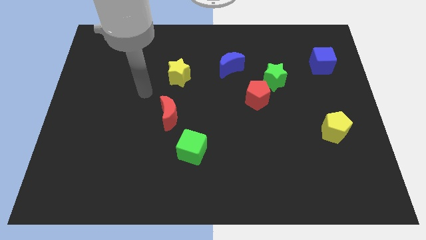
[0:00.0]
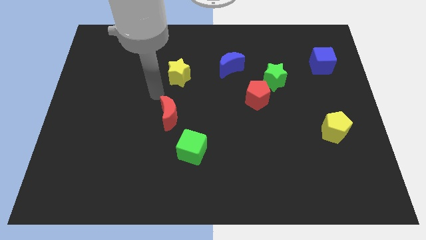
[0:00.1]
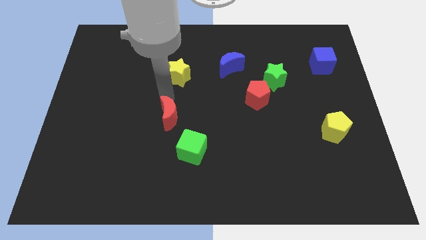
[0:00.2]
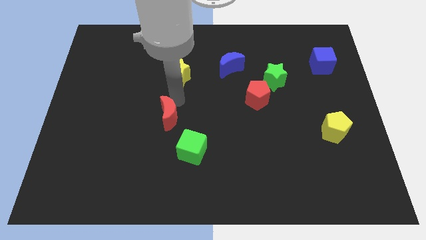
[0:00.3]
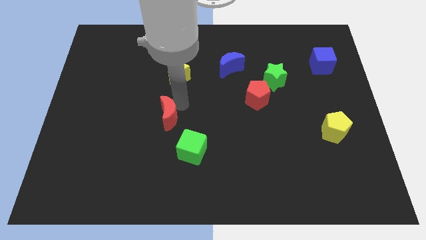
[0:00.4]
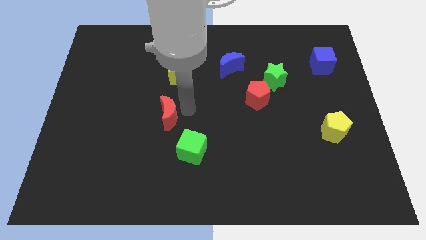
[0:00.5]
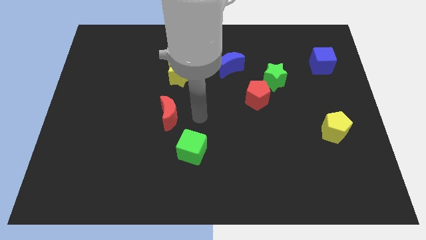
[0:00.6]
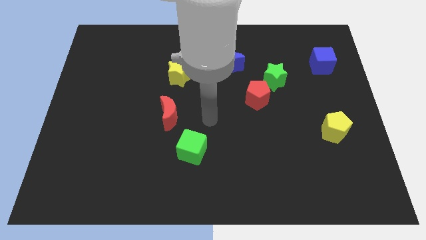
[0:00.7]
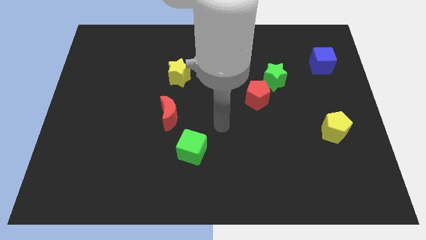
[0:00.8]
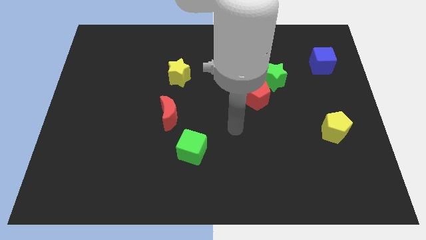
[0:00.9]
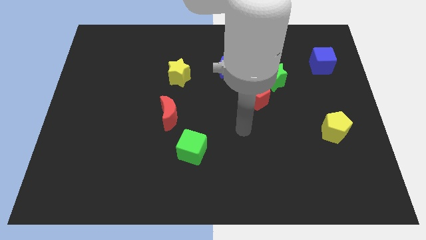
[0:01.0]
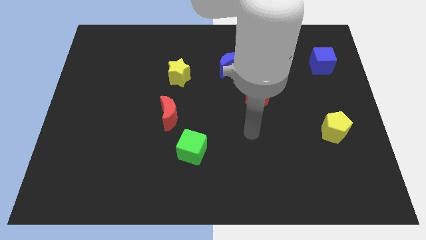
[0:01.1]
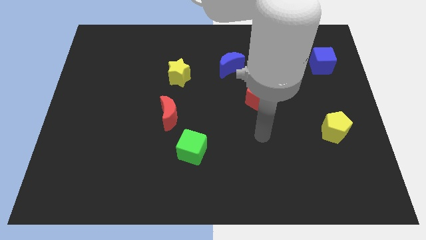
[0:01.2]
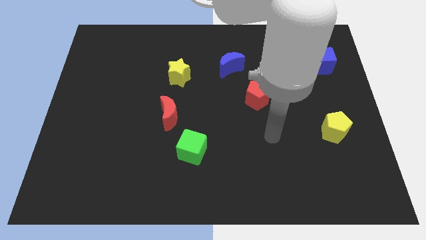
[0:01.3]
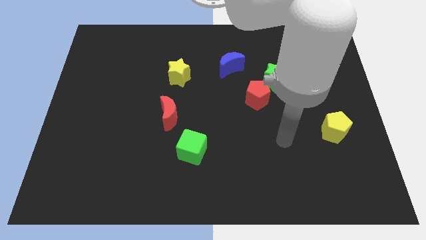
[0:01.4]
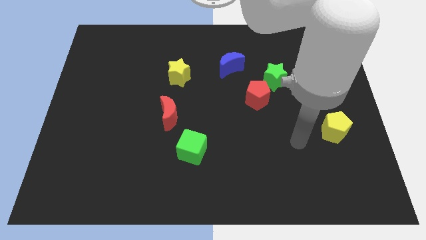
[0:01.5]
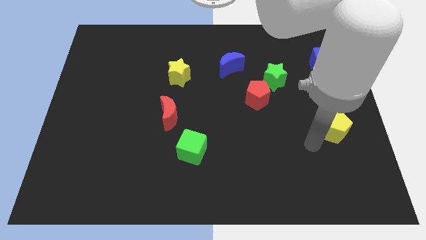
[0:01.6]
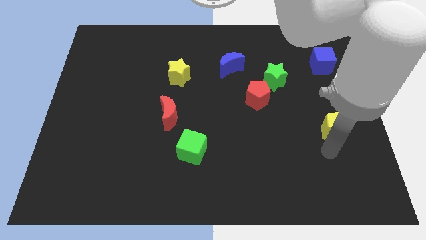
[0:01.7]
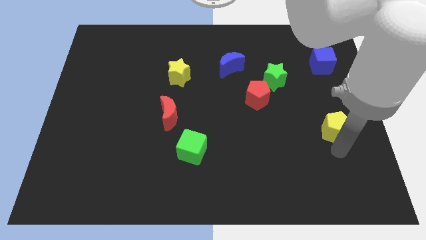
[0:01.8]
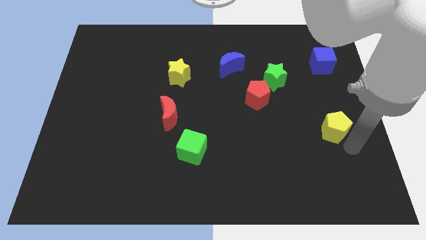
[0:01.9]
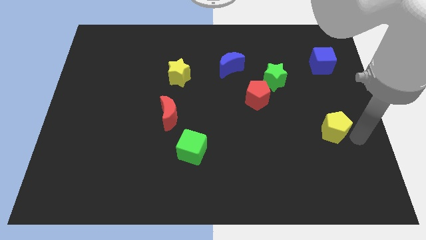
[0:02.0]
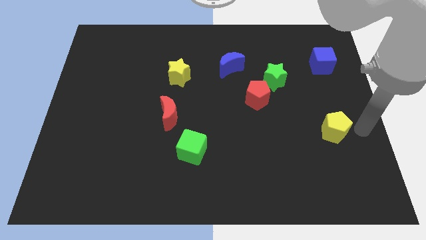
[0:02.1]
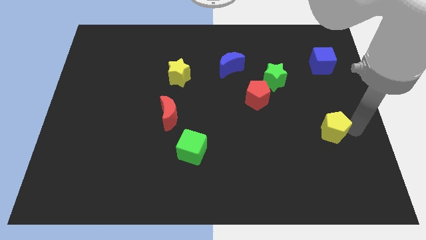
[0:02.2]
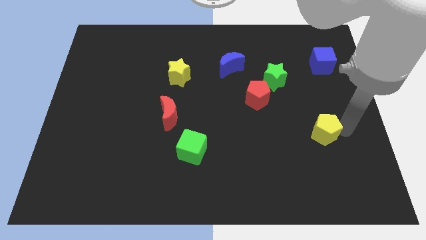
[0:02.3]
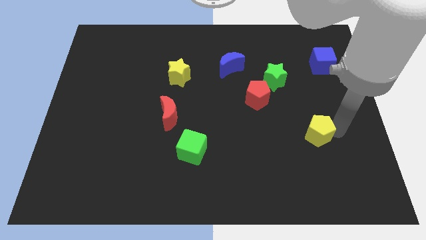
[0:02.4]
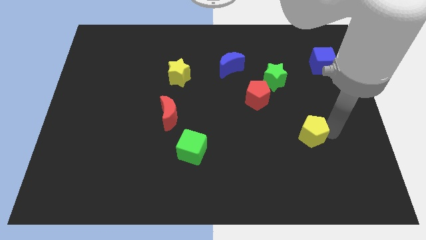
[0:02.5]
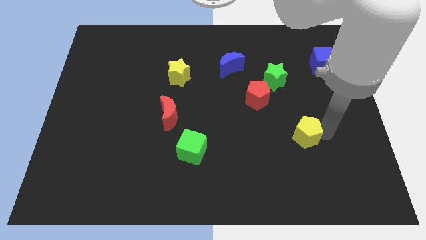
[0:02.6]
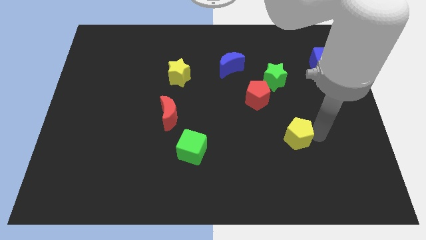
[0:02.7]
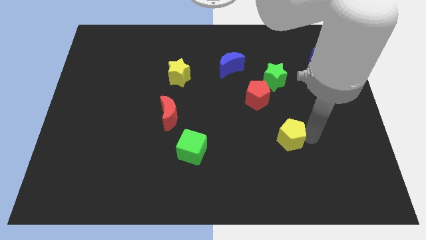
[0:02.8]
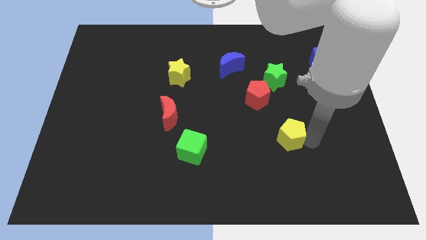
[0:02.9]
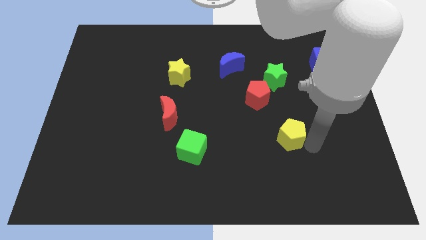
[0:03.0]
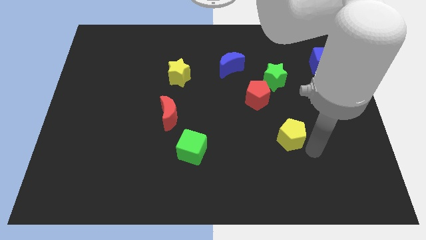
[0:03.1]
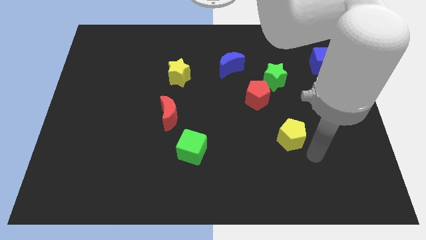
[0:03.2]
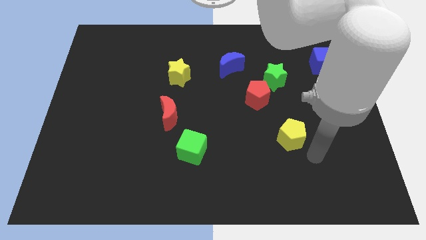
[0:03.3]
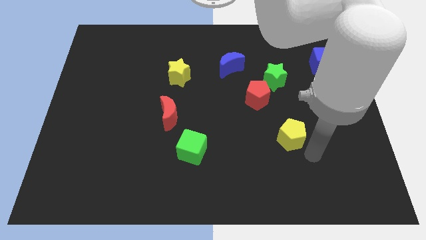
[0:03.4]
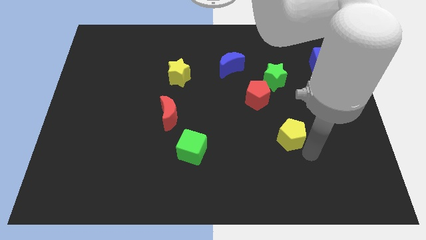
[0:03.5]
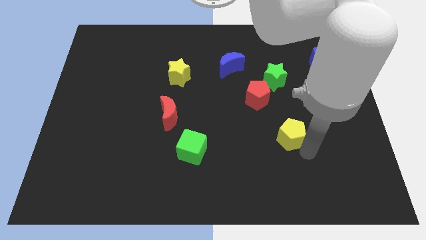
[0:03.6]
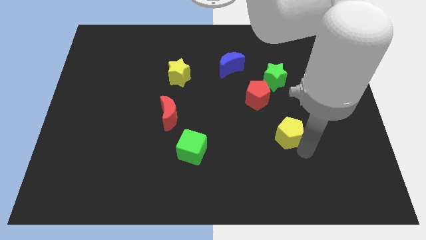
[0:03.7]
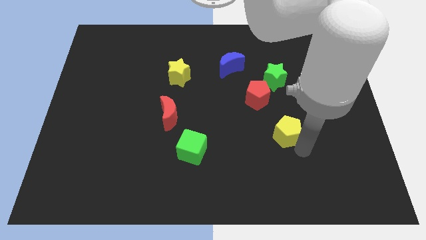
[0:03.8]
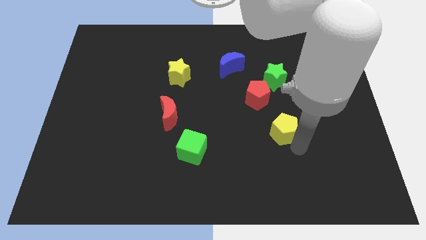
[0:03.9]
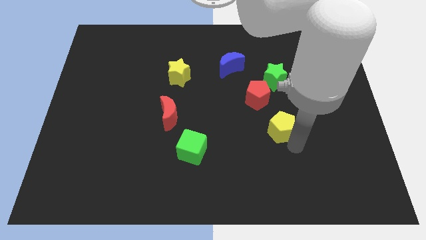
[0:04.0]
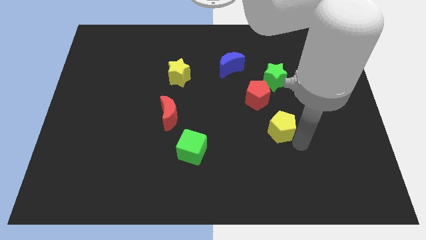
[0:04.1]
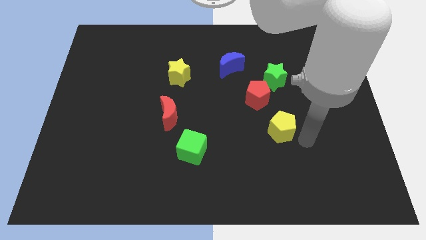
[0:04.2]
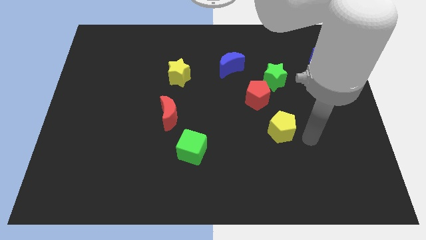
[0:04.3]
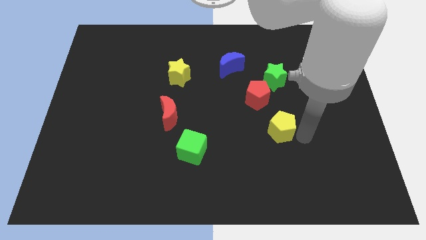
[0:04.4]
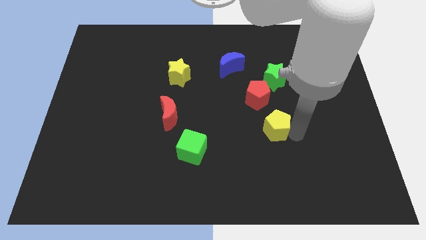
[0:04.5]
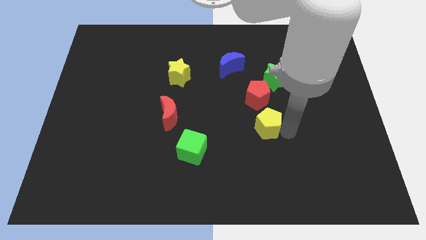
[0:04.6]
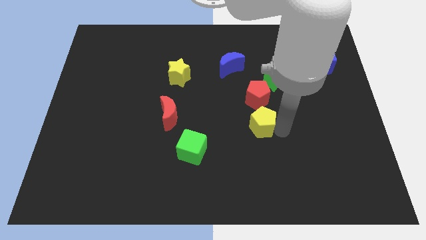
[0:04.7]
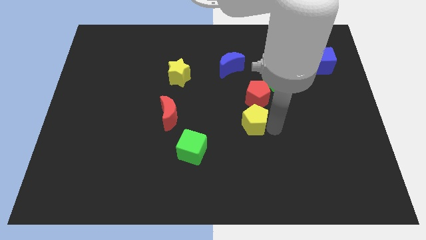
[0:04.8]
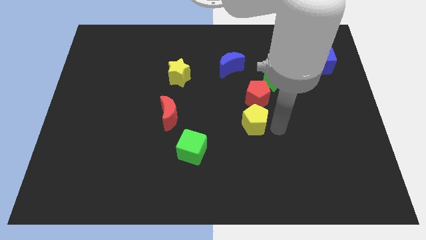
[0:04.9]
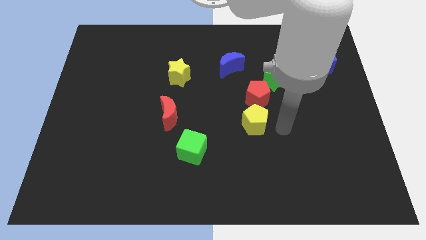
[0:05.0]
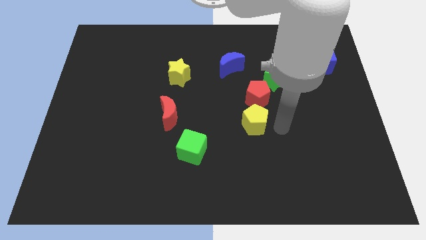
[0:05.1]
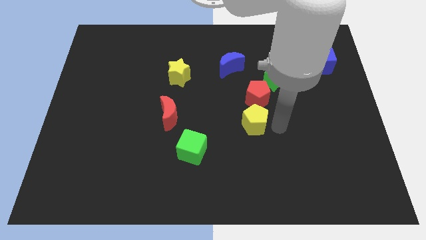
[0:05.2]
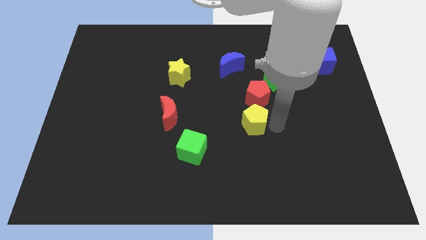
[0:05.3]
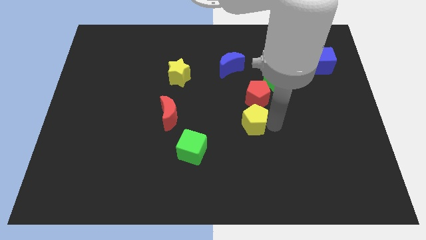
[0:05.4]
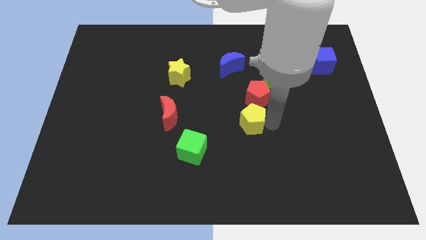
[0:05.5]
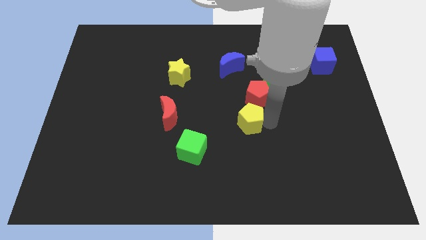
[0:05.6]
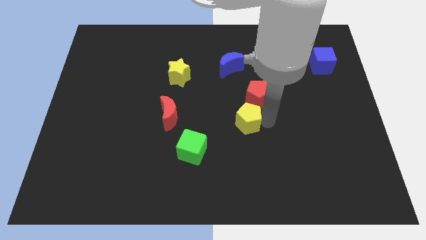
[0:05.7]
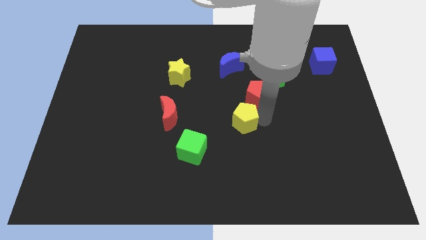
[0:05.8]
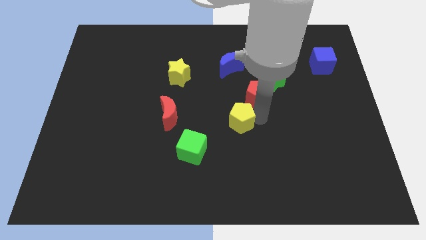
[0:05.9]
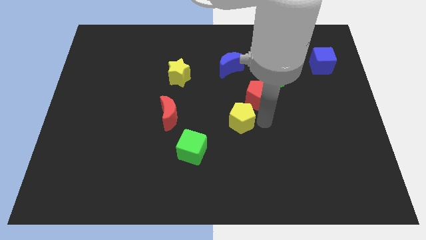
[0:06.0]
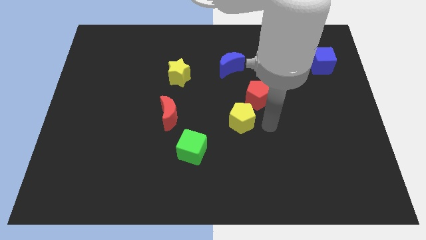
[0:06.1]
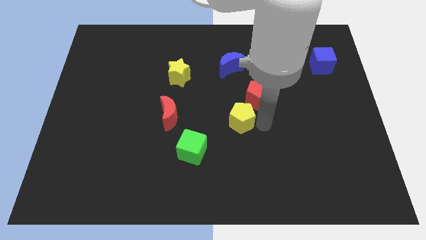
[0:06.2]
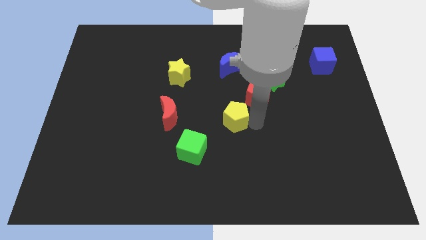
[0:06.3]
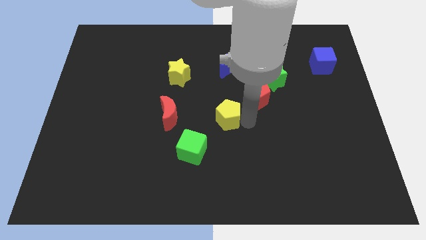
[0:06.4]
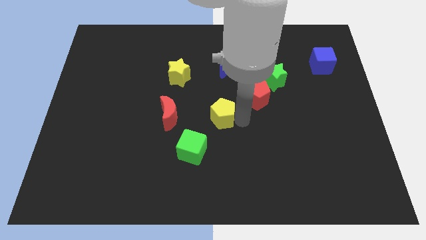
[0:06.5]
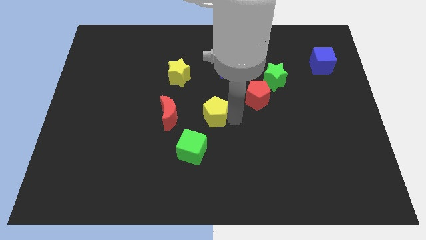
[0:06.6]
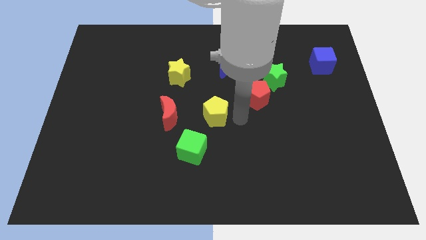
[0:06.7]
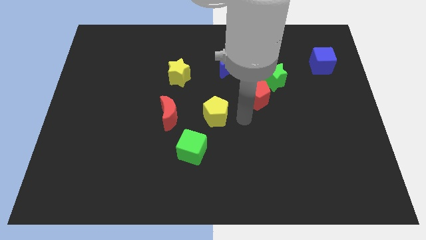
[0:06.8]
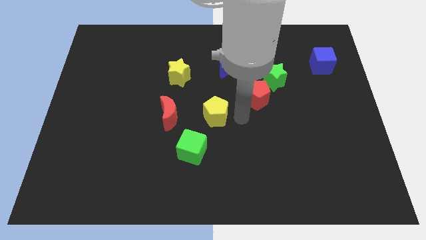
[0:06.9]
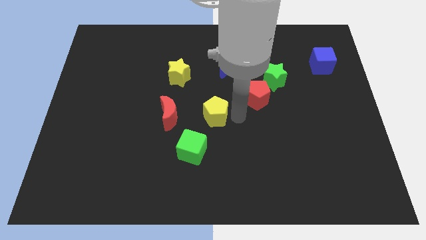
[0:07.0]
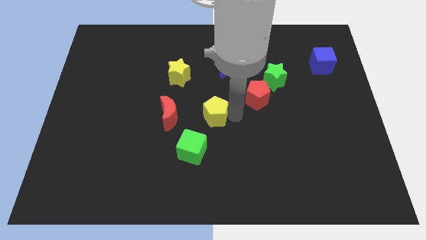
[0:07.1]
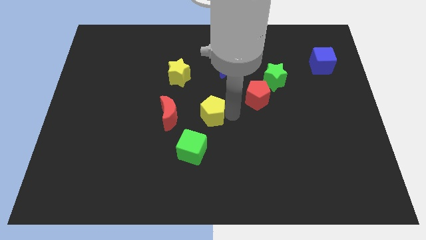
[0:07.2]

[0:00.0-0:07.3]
put the yellow pentagon above the green cube
